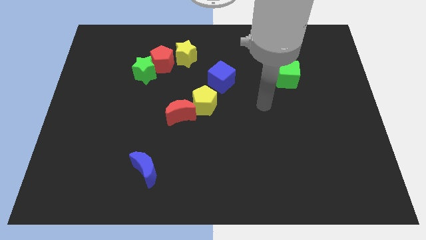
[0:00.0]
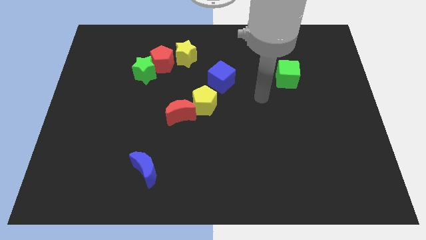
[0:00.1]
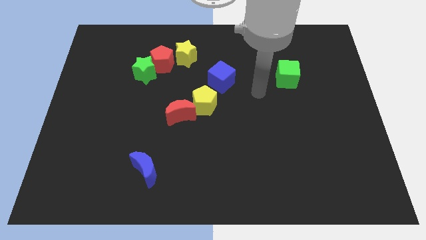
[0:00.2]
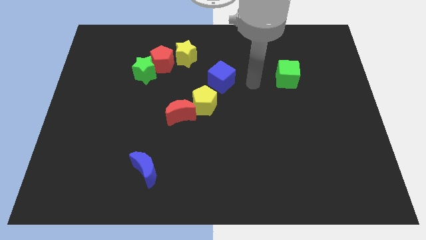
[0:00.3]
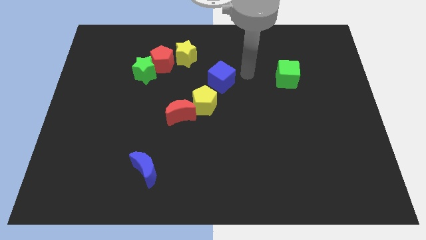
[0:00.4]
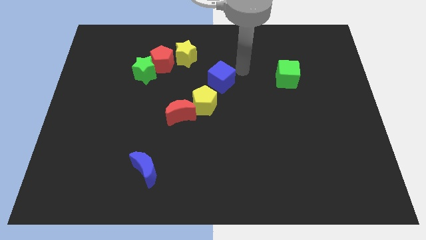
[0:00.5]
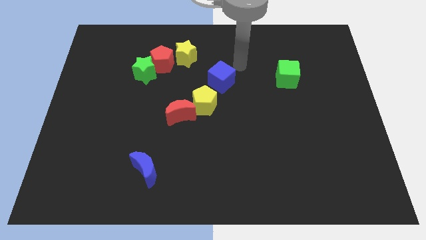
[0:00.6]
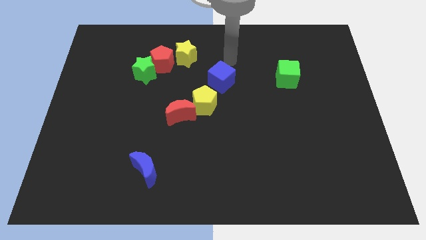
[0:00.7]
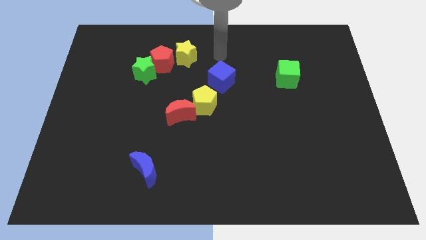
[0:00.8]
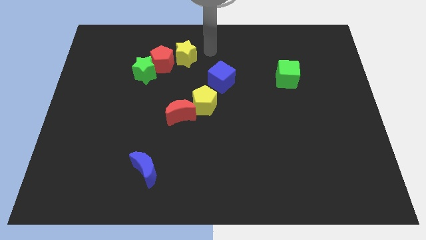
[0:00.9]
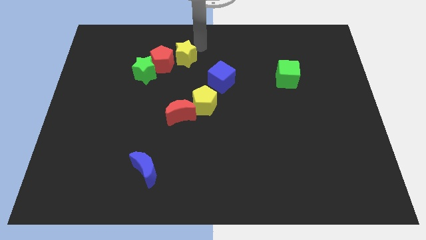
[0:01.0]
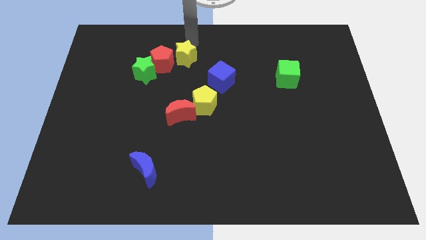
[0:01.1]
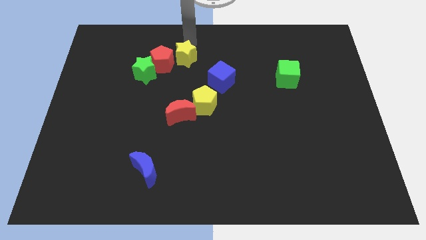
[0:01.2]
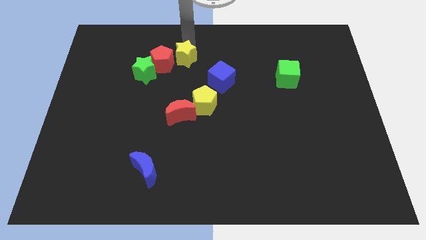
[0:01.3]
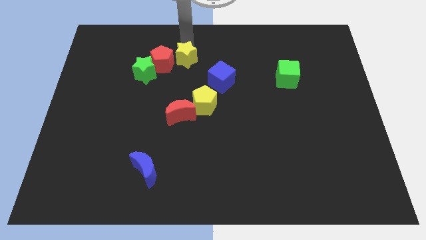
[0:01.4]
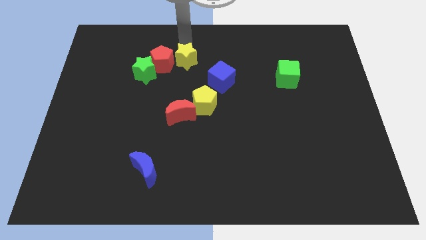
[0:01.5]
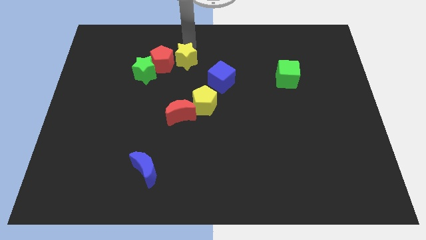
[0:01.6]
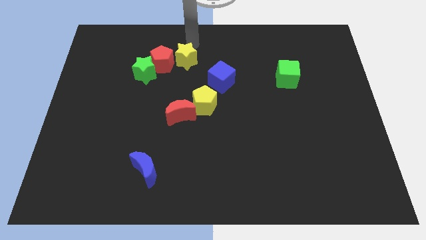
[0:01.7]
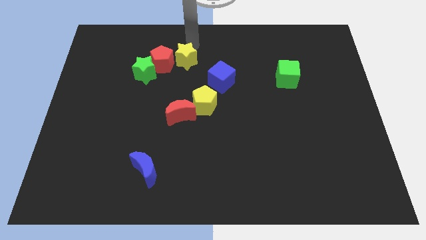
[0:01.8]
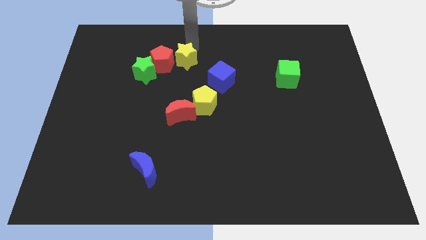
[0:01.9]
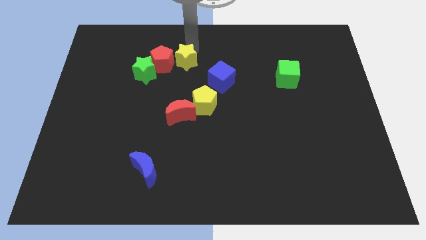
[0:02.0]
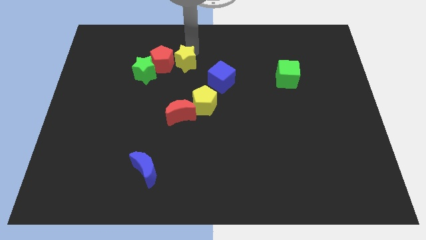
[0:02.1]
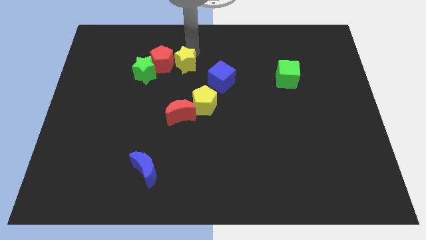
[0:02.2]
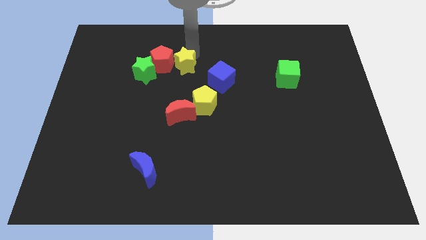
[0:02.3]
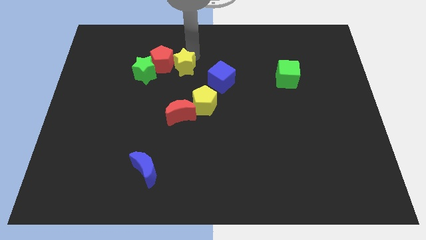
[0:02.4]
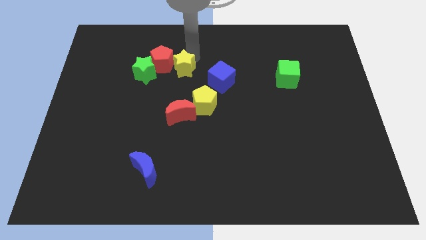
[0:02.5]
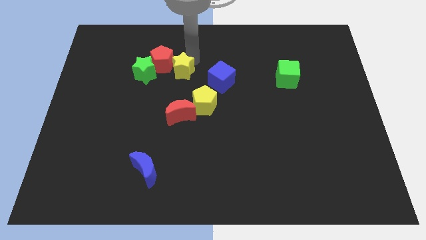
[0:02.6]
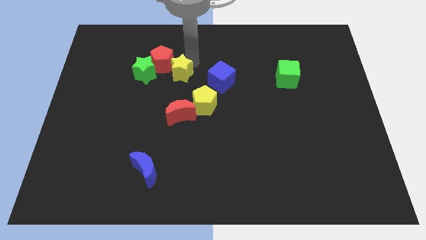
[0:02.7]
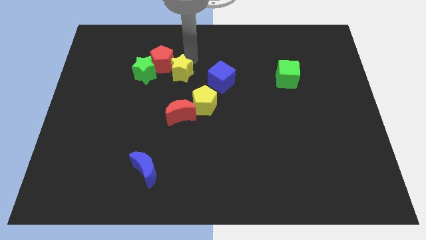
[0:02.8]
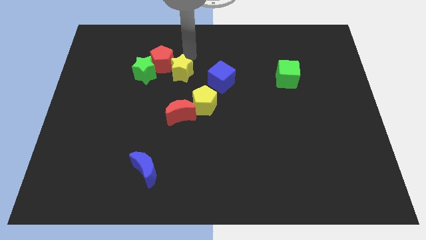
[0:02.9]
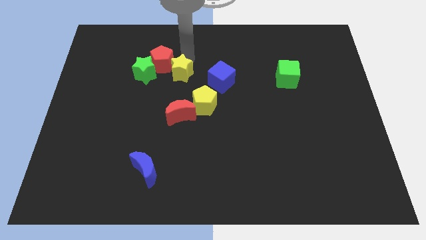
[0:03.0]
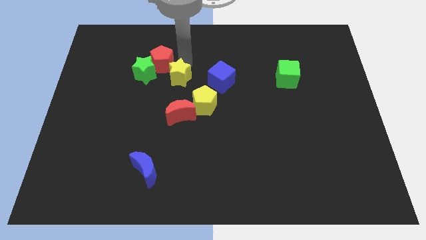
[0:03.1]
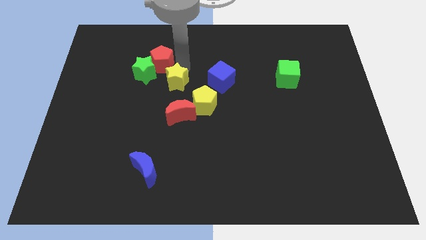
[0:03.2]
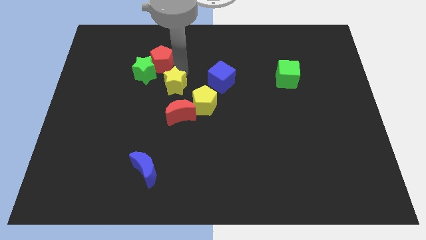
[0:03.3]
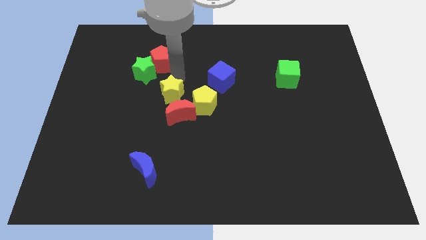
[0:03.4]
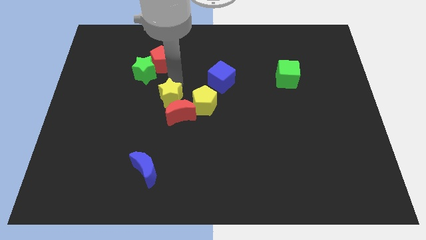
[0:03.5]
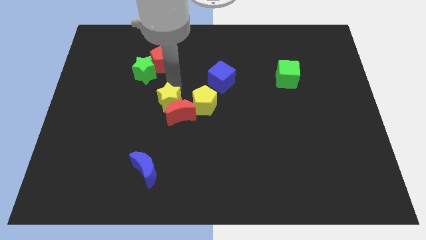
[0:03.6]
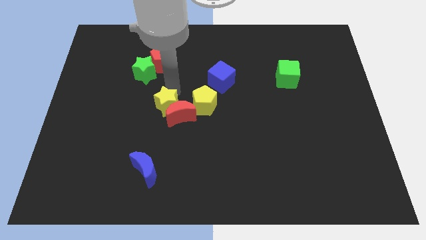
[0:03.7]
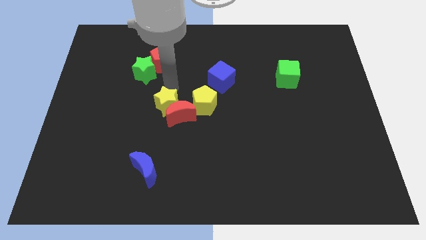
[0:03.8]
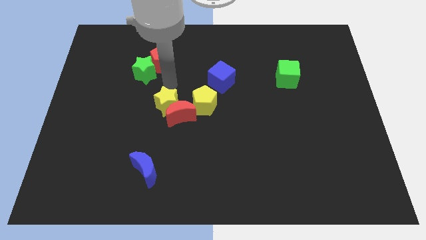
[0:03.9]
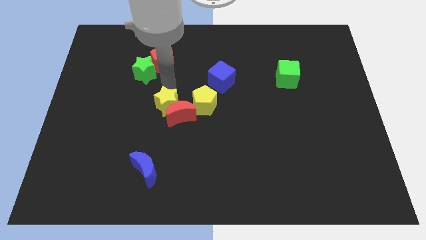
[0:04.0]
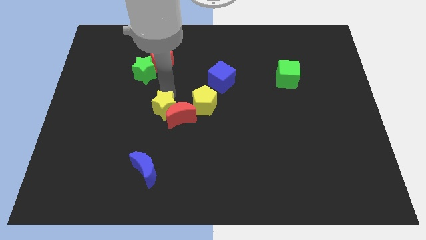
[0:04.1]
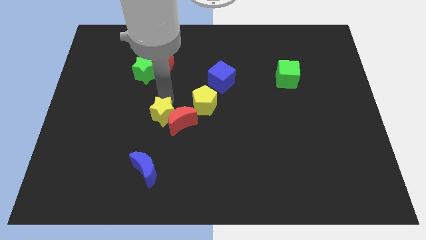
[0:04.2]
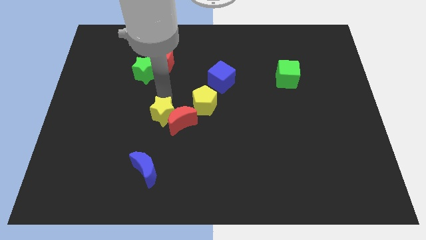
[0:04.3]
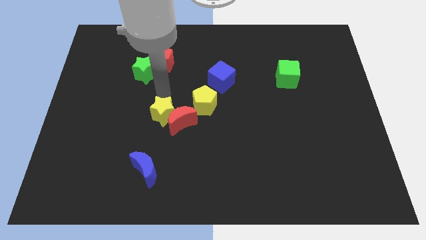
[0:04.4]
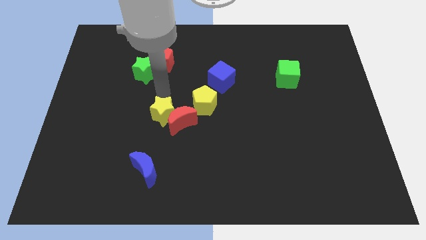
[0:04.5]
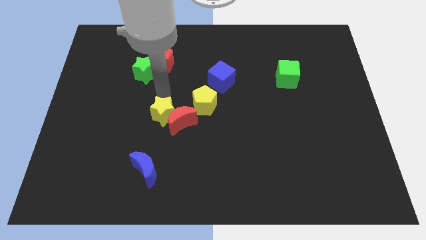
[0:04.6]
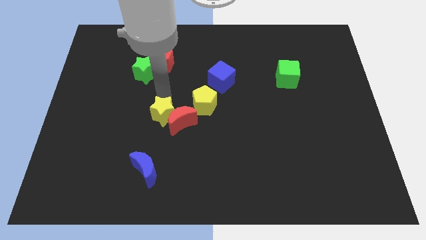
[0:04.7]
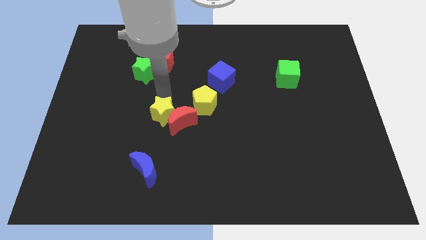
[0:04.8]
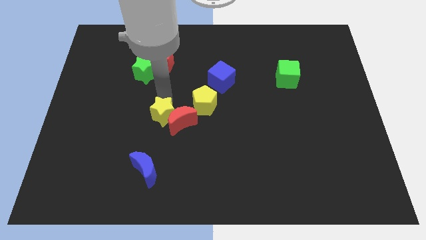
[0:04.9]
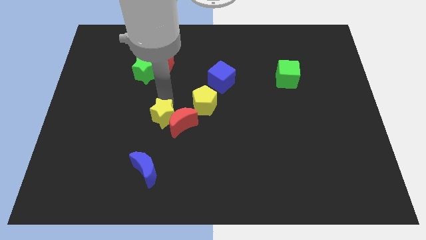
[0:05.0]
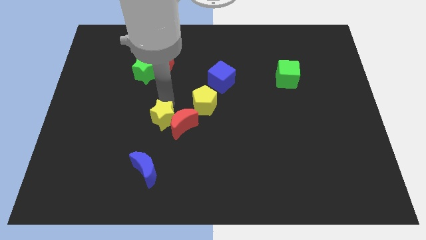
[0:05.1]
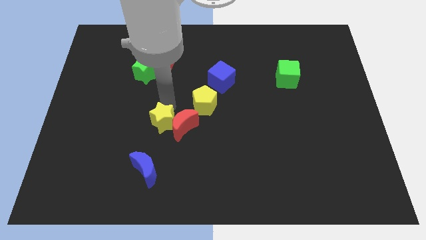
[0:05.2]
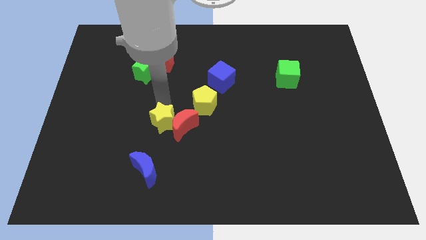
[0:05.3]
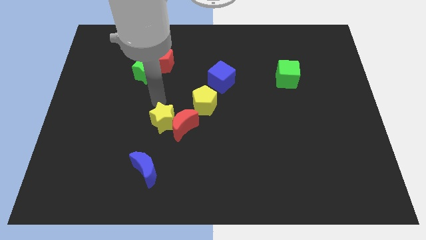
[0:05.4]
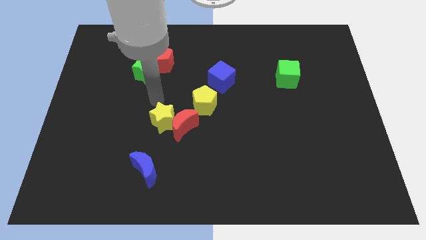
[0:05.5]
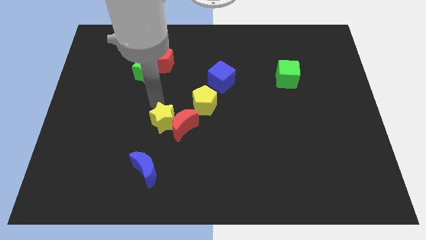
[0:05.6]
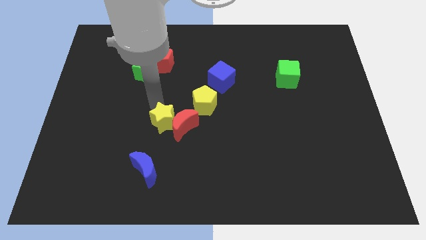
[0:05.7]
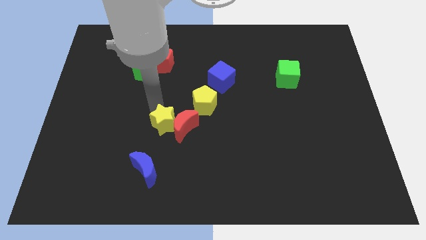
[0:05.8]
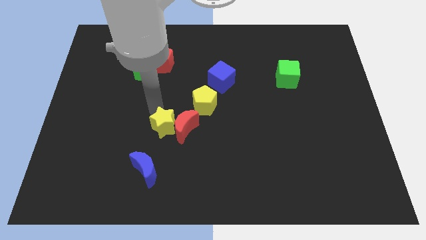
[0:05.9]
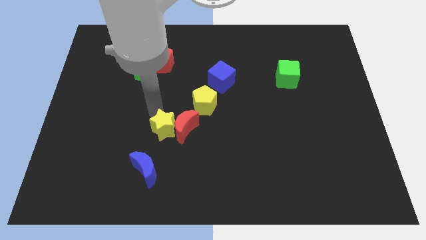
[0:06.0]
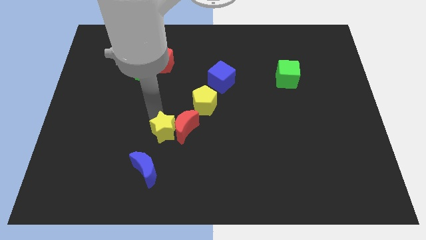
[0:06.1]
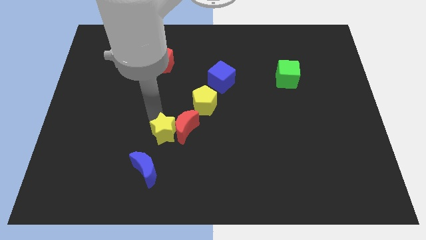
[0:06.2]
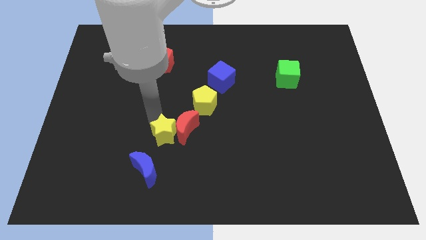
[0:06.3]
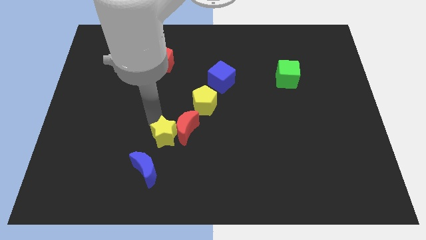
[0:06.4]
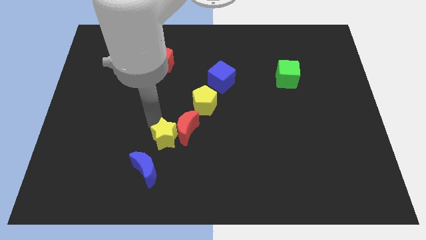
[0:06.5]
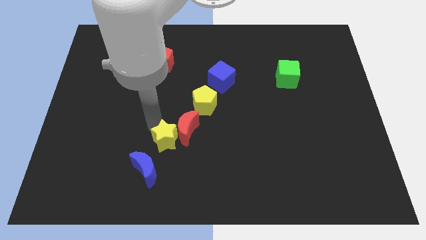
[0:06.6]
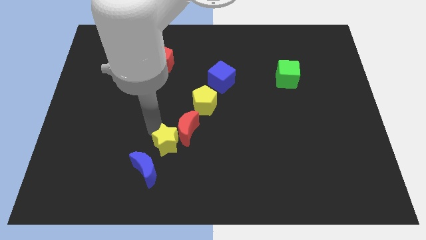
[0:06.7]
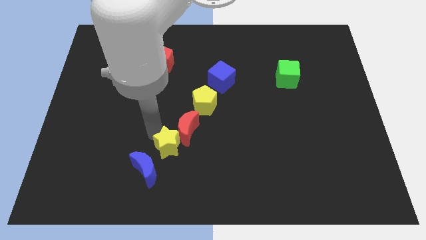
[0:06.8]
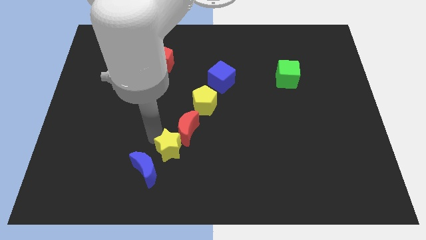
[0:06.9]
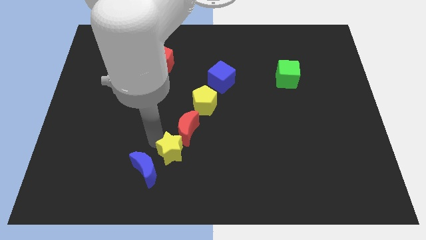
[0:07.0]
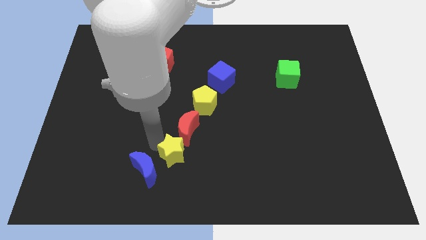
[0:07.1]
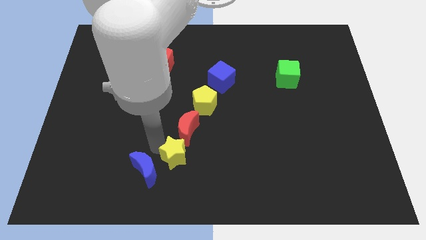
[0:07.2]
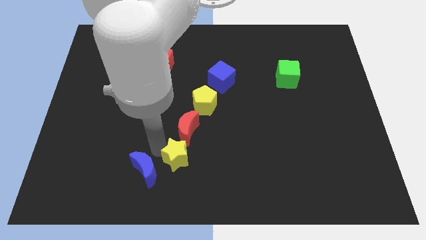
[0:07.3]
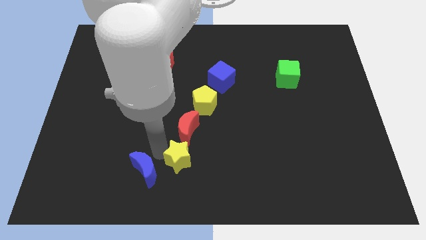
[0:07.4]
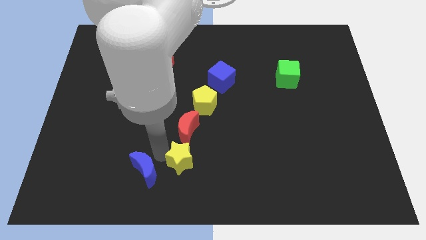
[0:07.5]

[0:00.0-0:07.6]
move the yellow star to the bottom
